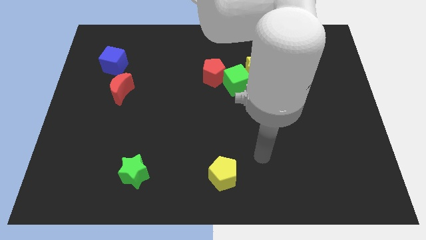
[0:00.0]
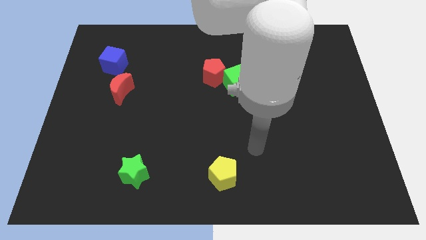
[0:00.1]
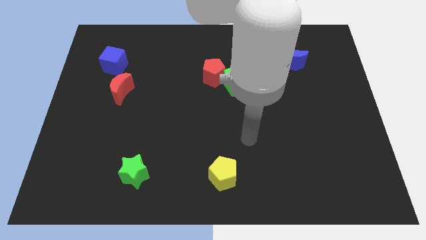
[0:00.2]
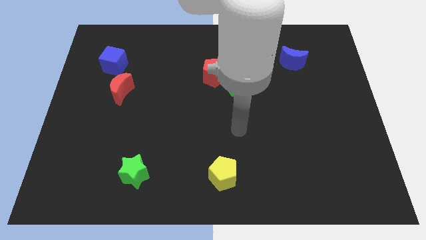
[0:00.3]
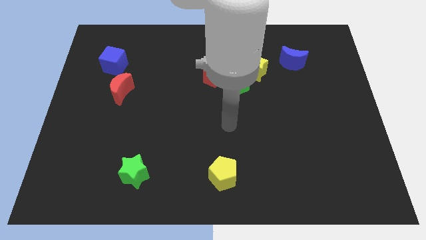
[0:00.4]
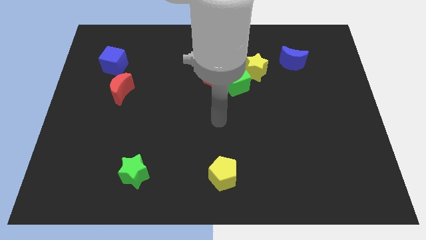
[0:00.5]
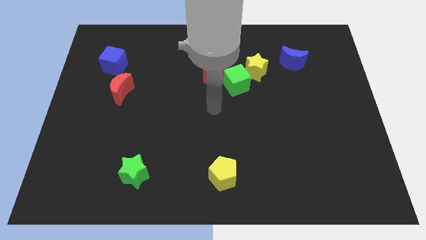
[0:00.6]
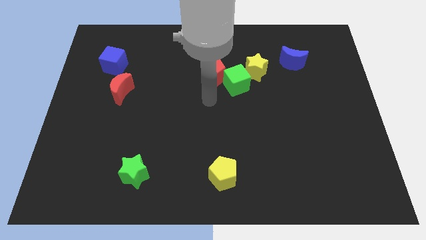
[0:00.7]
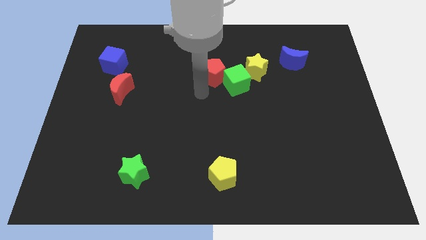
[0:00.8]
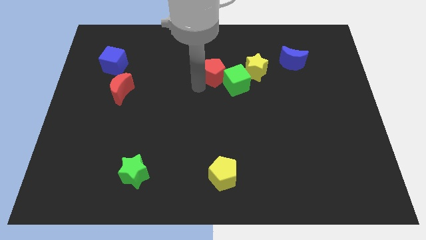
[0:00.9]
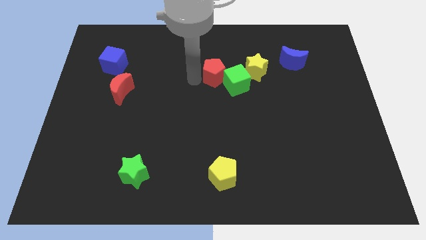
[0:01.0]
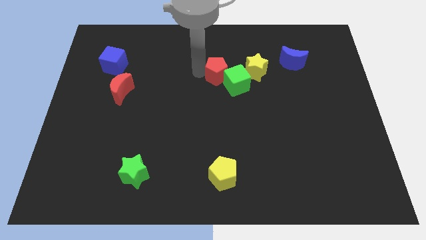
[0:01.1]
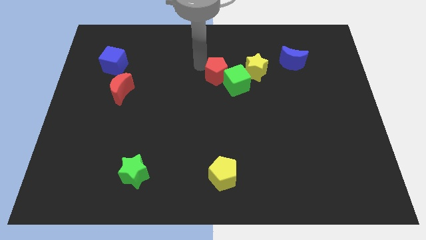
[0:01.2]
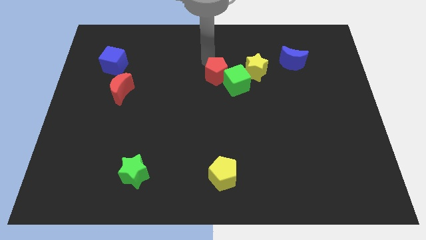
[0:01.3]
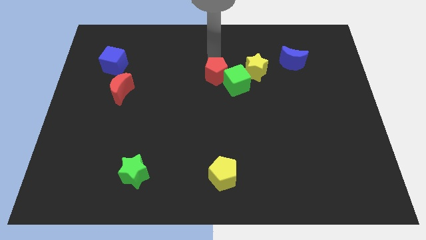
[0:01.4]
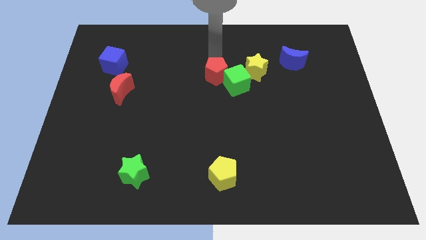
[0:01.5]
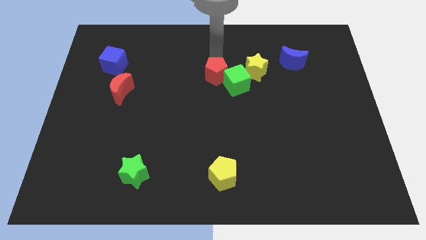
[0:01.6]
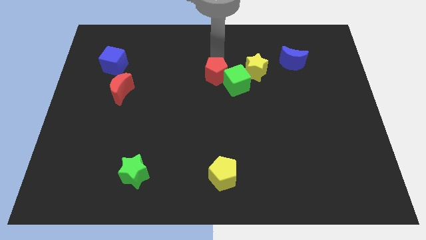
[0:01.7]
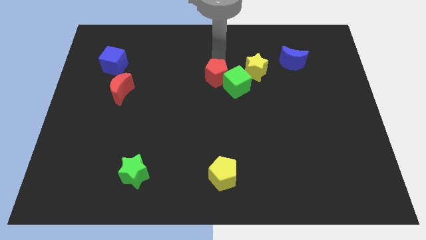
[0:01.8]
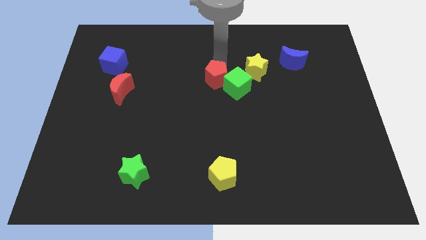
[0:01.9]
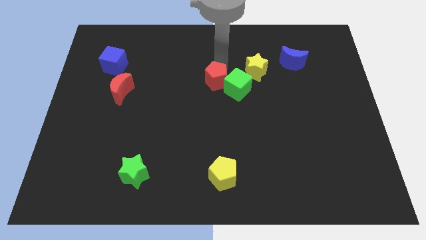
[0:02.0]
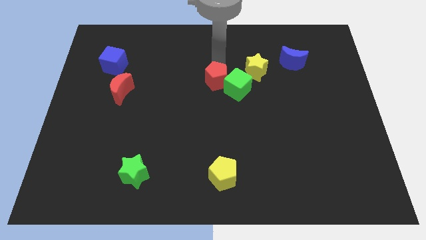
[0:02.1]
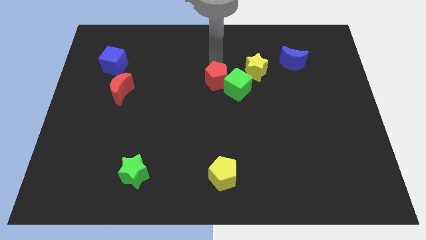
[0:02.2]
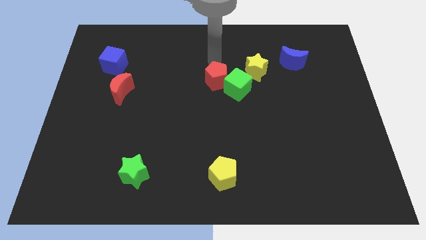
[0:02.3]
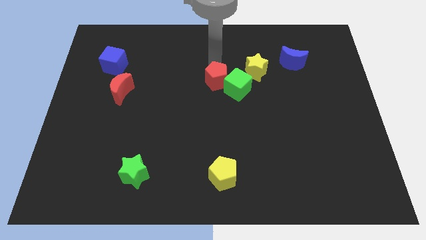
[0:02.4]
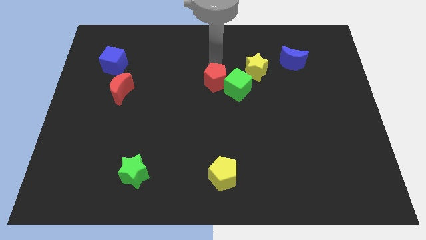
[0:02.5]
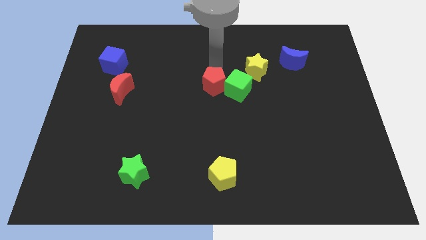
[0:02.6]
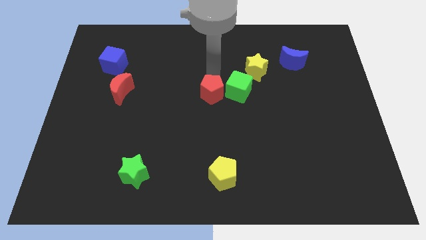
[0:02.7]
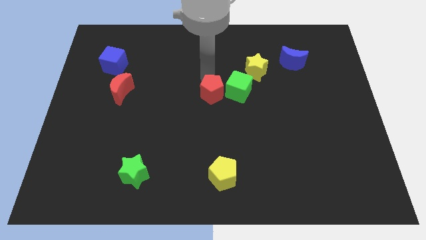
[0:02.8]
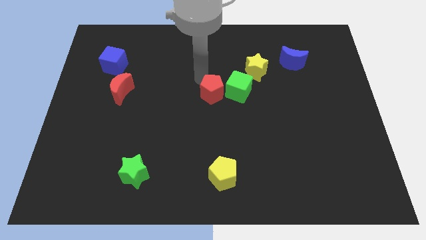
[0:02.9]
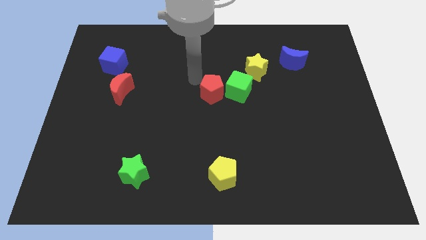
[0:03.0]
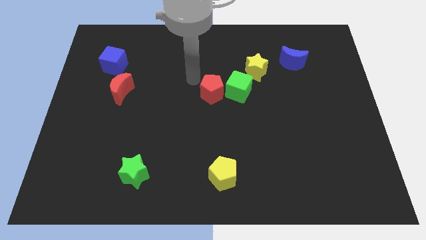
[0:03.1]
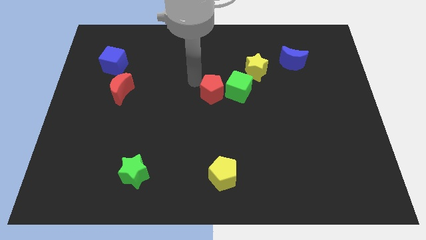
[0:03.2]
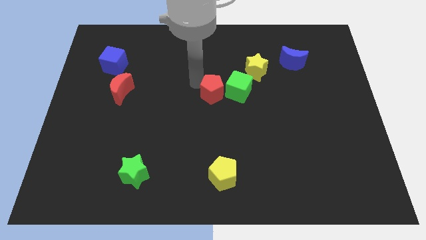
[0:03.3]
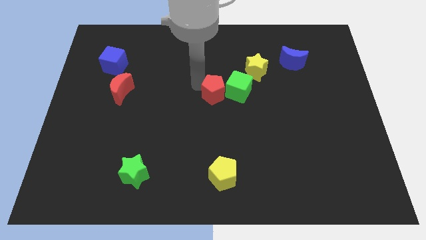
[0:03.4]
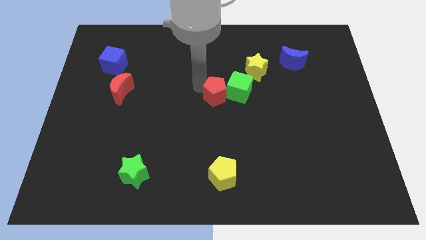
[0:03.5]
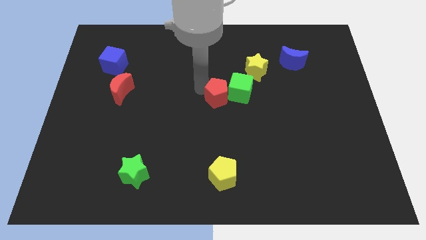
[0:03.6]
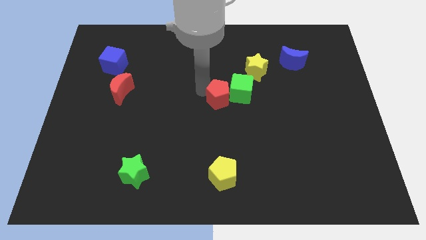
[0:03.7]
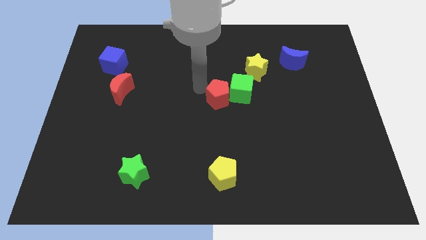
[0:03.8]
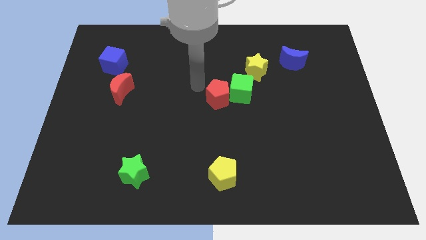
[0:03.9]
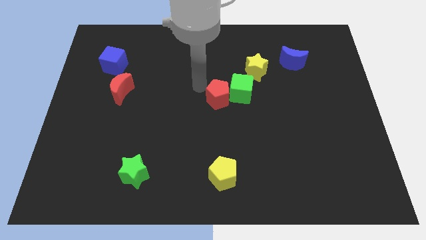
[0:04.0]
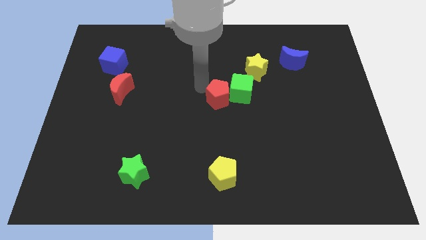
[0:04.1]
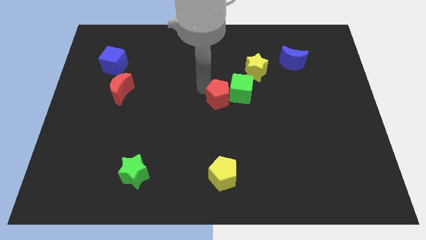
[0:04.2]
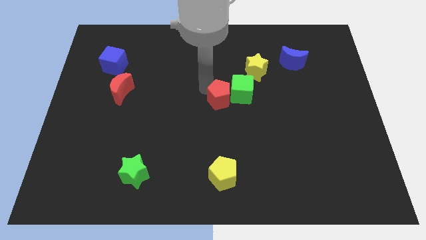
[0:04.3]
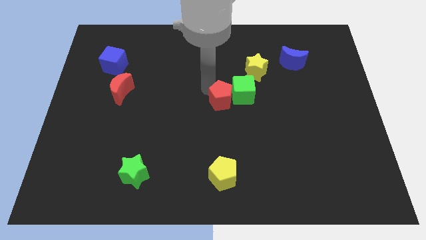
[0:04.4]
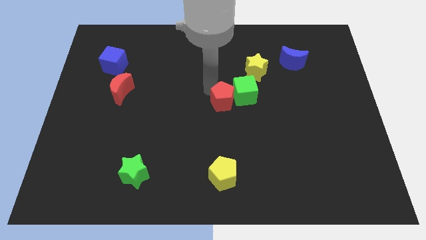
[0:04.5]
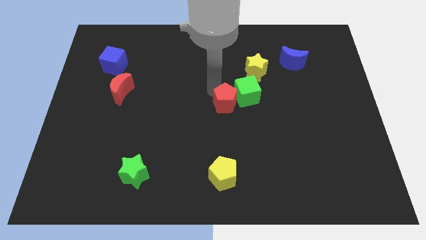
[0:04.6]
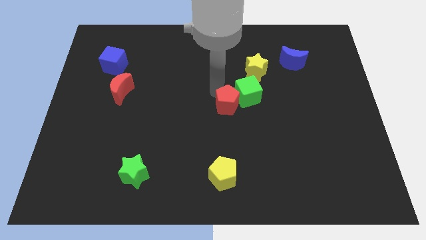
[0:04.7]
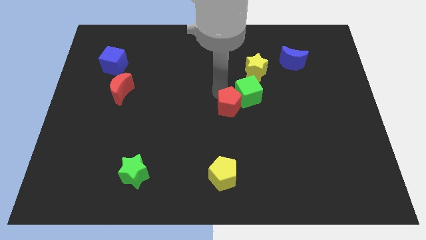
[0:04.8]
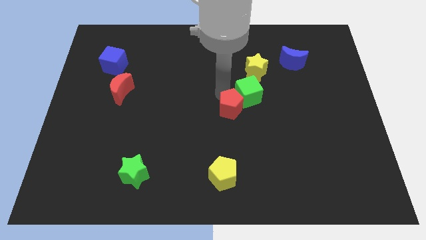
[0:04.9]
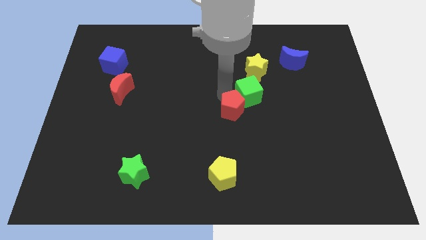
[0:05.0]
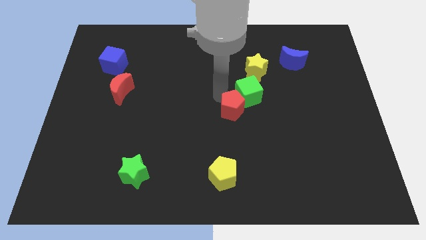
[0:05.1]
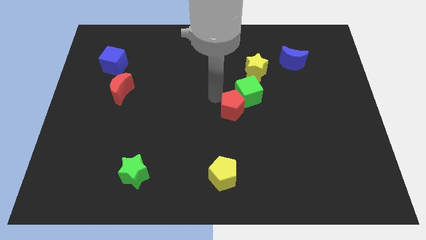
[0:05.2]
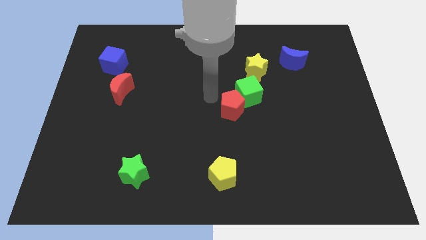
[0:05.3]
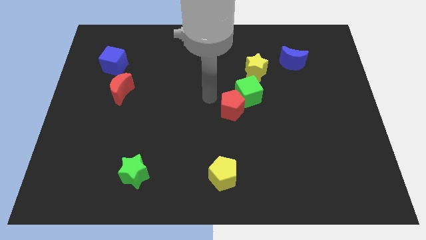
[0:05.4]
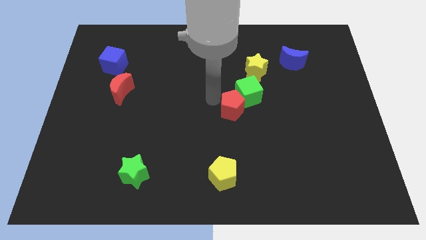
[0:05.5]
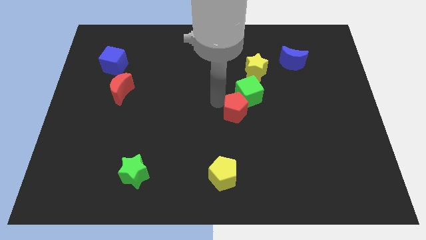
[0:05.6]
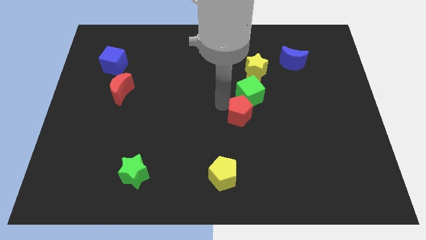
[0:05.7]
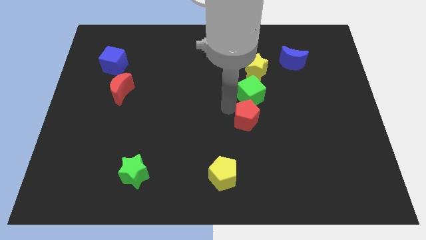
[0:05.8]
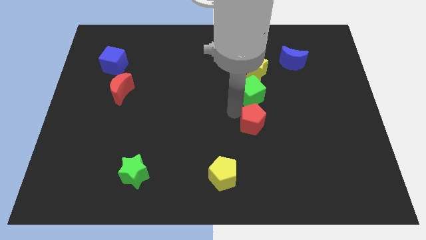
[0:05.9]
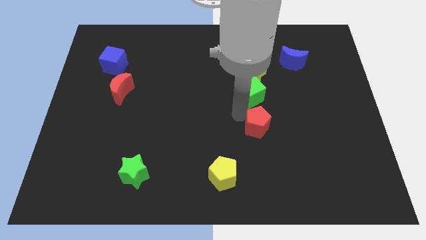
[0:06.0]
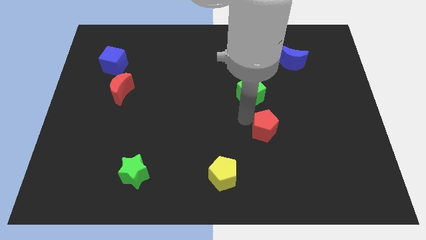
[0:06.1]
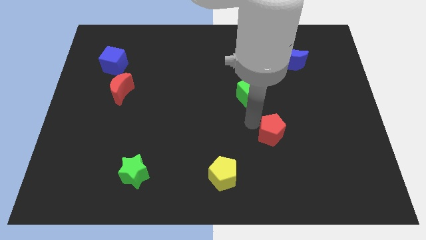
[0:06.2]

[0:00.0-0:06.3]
slide the red pentagon down and to the right

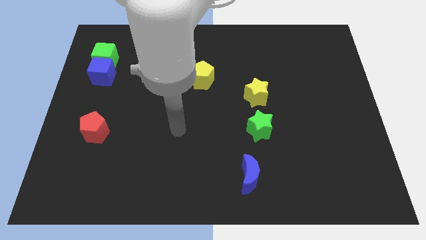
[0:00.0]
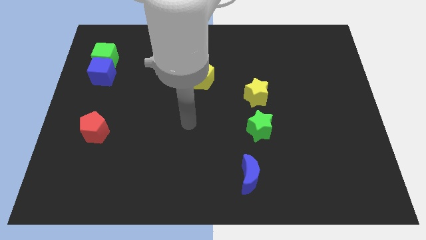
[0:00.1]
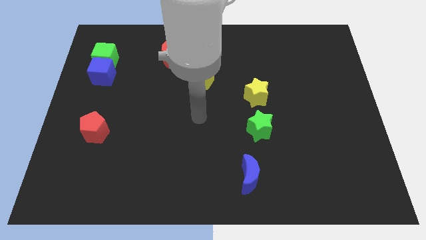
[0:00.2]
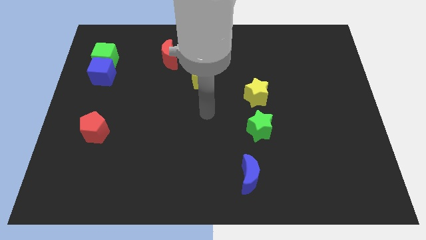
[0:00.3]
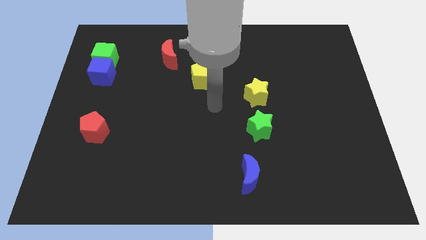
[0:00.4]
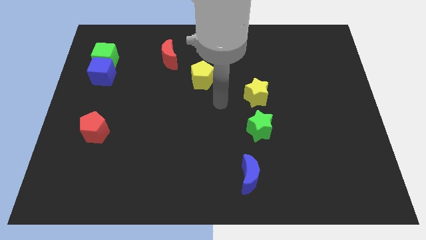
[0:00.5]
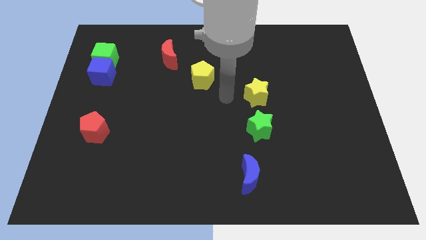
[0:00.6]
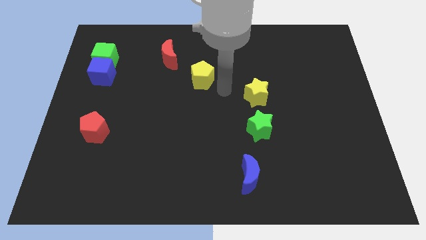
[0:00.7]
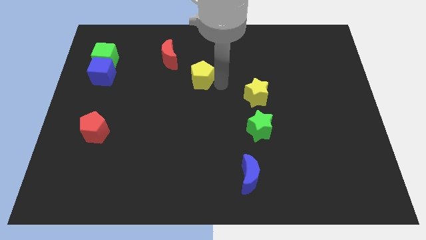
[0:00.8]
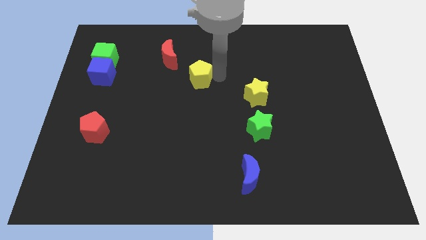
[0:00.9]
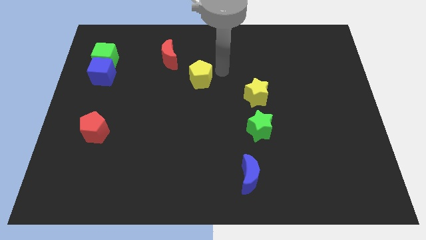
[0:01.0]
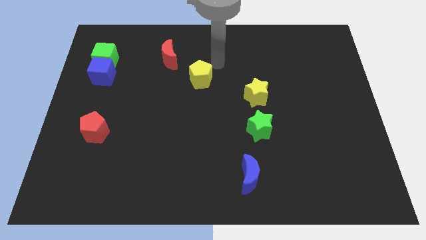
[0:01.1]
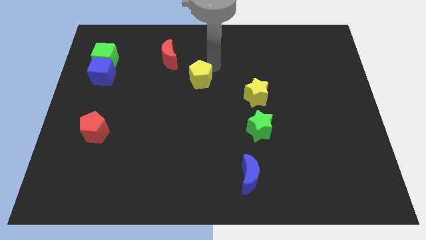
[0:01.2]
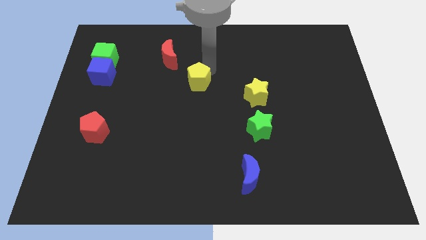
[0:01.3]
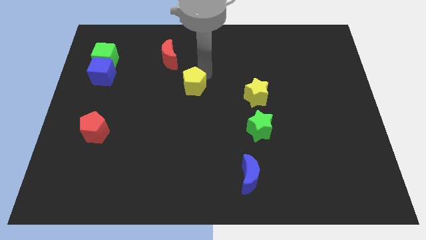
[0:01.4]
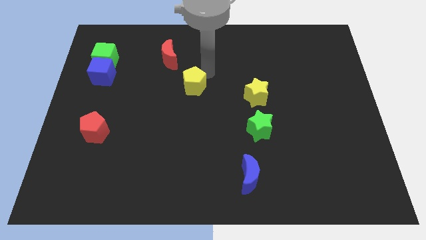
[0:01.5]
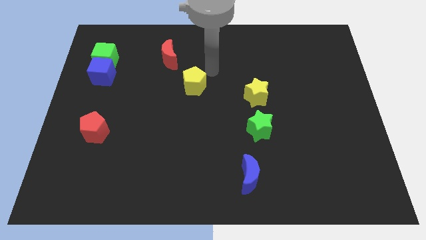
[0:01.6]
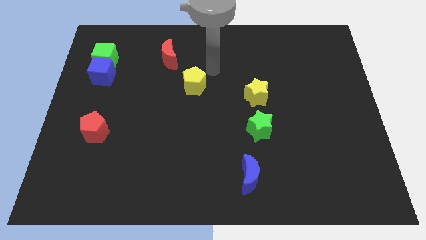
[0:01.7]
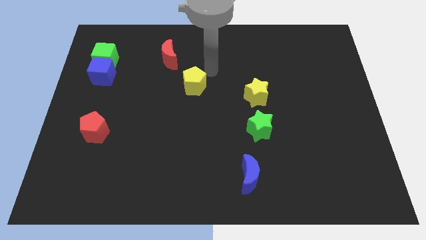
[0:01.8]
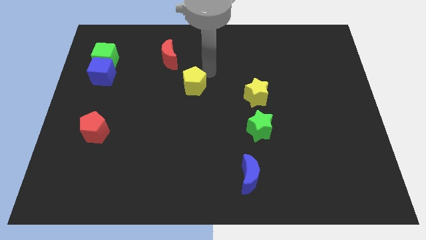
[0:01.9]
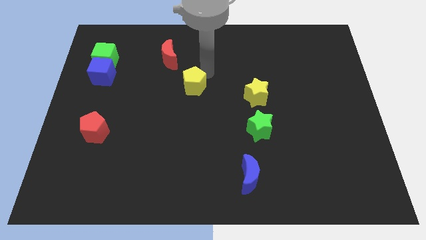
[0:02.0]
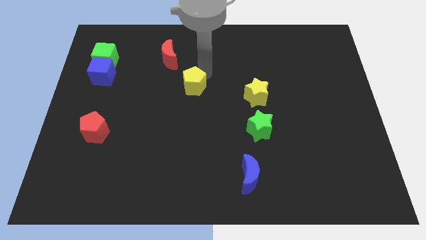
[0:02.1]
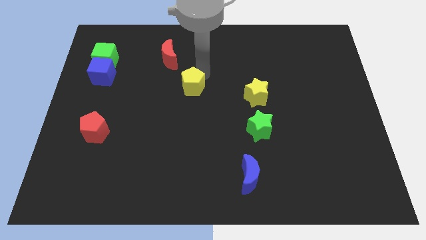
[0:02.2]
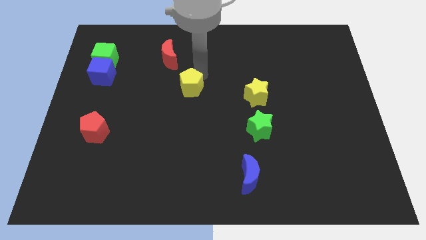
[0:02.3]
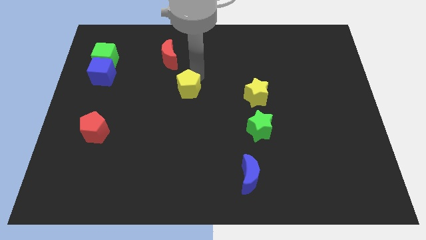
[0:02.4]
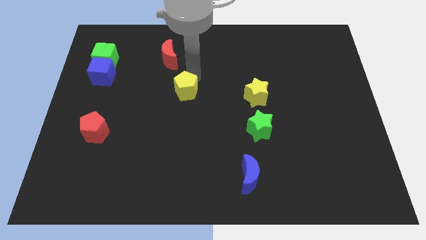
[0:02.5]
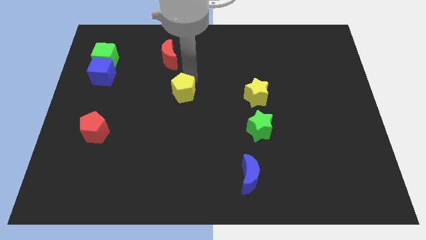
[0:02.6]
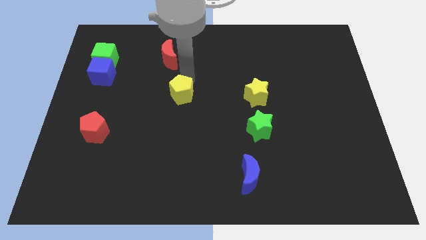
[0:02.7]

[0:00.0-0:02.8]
push the yellow pentagon somewhat downwards and left diagonally
